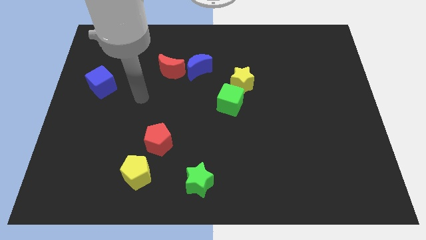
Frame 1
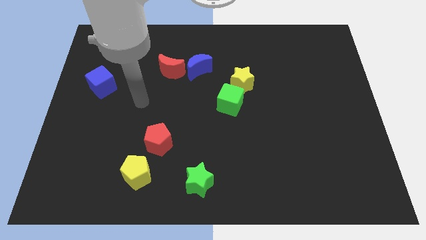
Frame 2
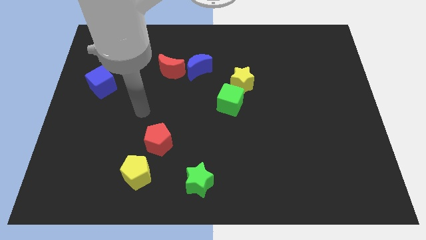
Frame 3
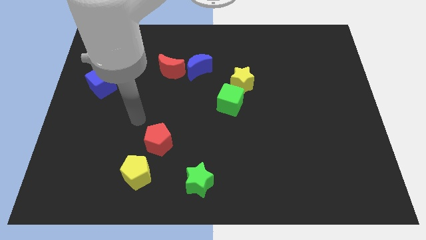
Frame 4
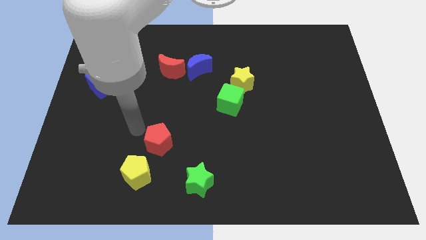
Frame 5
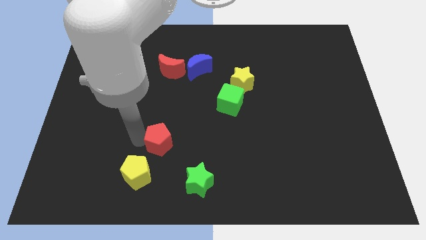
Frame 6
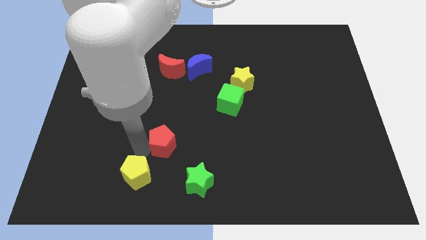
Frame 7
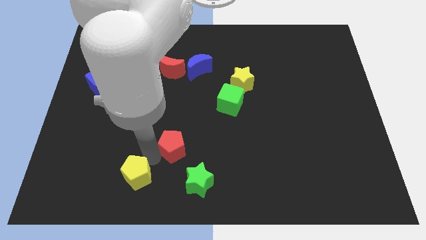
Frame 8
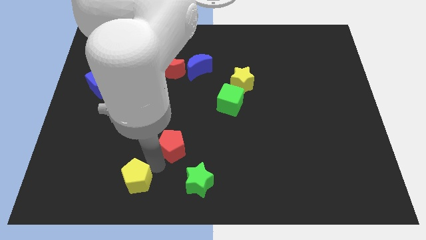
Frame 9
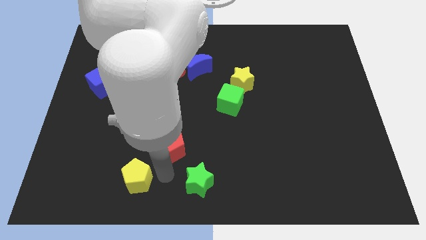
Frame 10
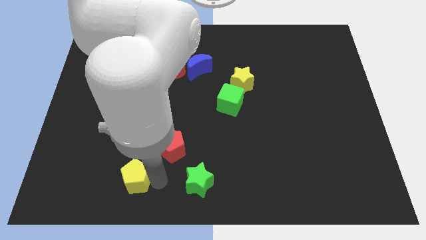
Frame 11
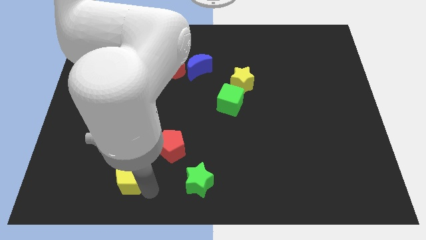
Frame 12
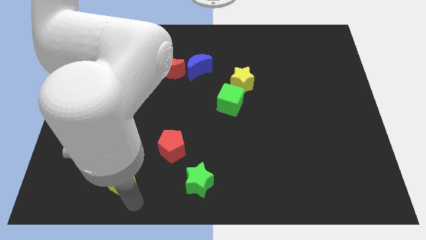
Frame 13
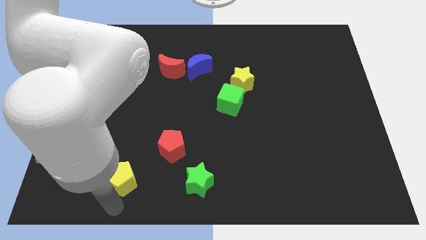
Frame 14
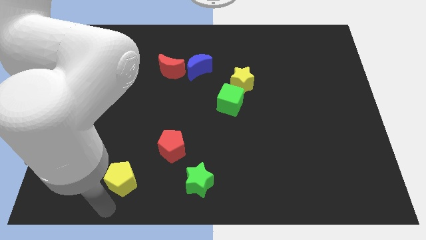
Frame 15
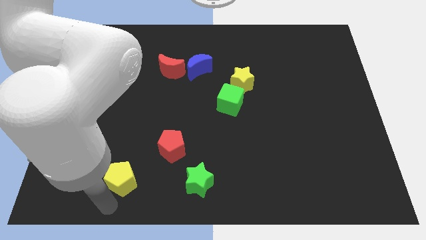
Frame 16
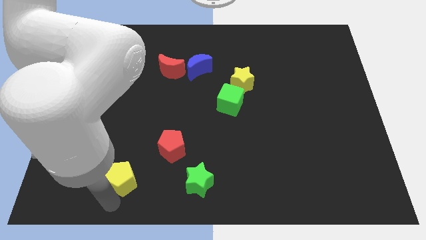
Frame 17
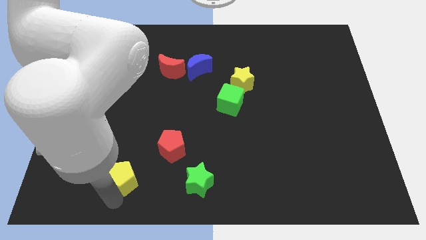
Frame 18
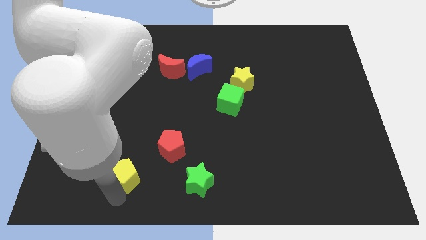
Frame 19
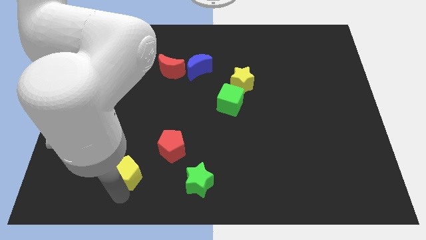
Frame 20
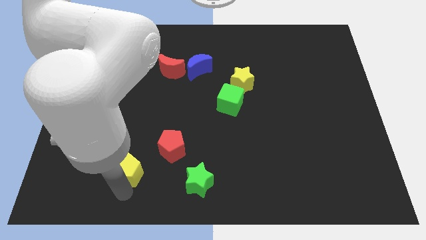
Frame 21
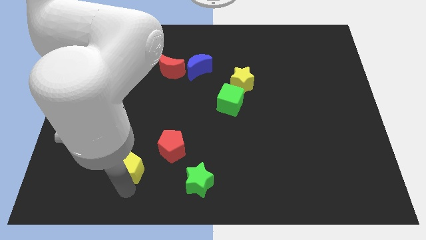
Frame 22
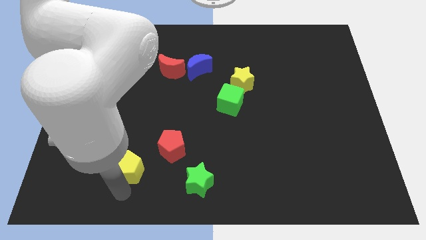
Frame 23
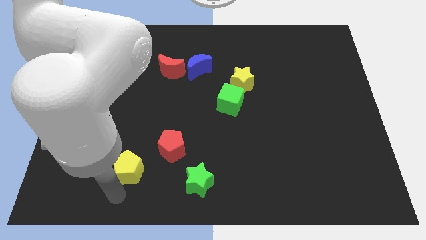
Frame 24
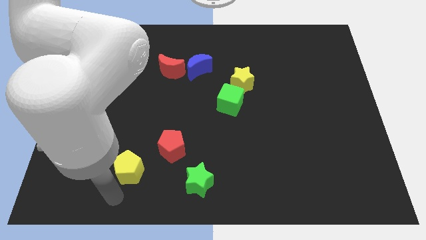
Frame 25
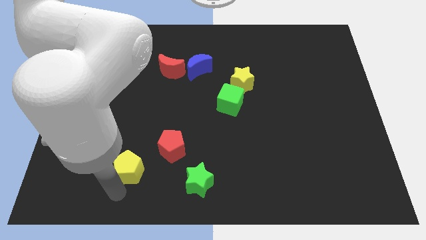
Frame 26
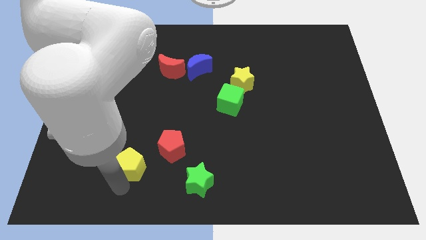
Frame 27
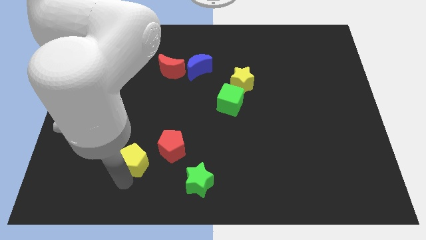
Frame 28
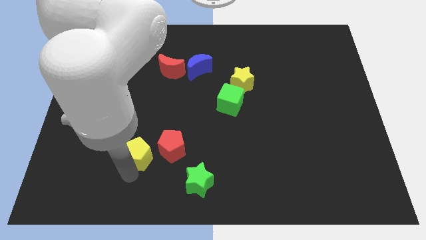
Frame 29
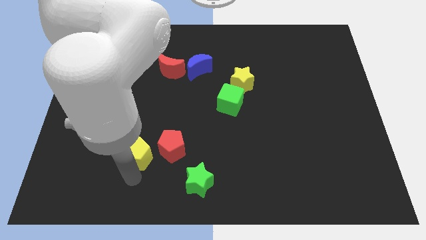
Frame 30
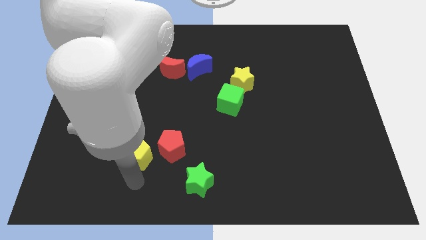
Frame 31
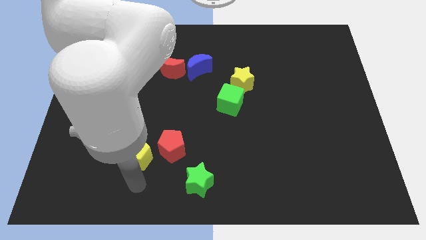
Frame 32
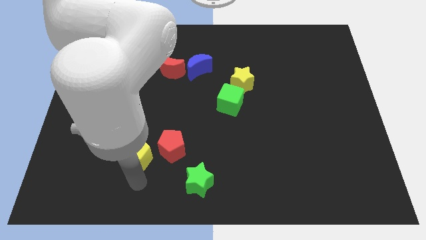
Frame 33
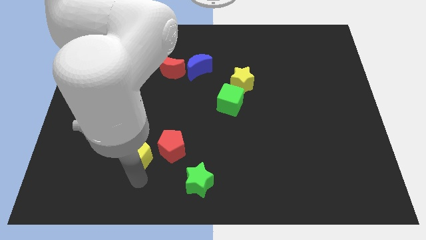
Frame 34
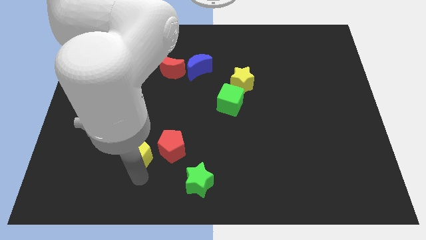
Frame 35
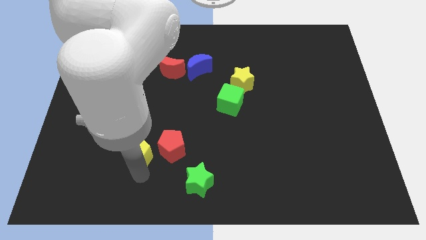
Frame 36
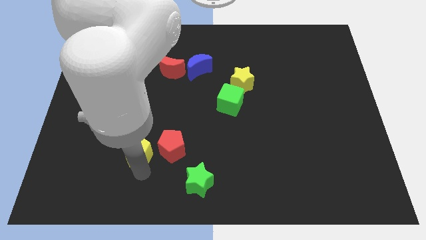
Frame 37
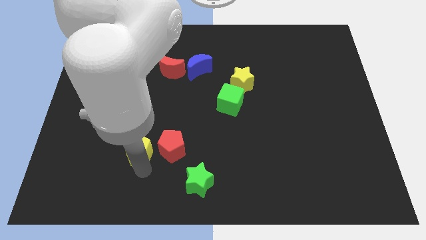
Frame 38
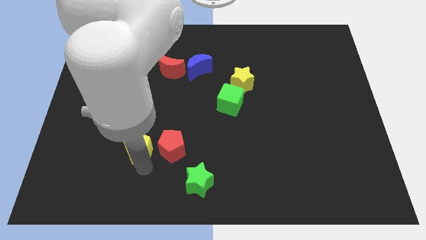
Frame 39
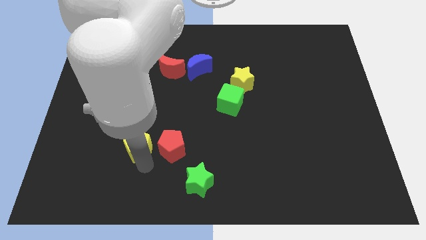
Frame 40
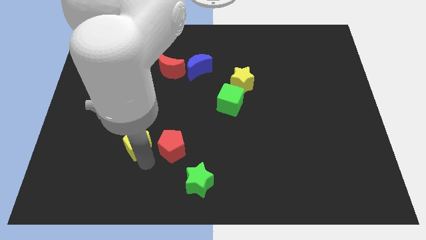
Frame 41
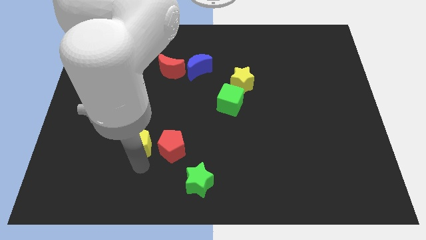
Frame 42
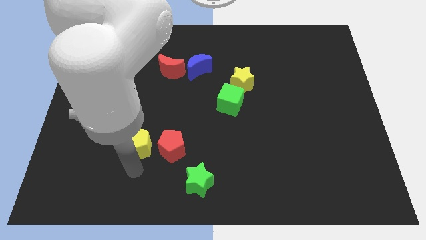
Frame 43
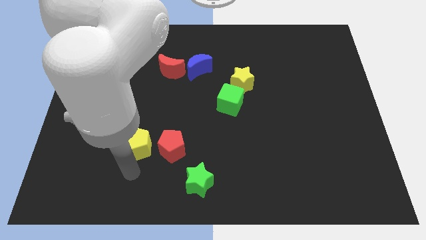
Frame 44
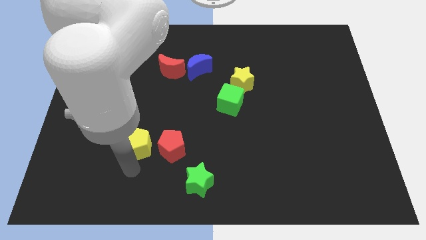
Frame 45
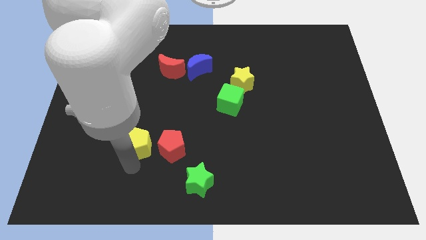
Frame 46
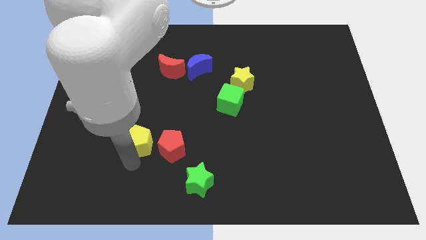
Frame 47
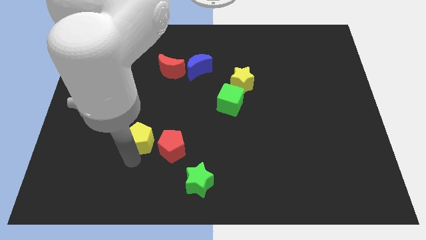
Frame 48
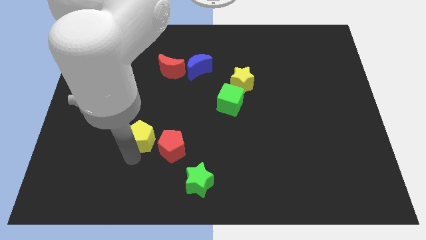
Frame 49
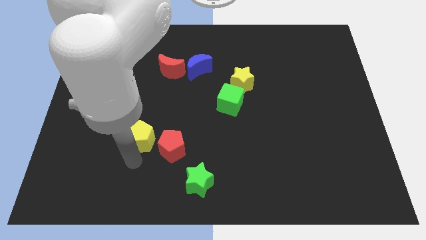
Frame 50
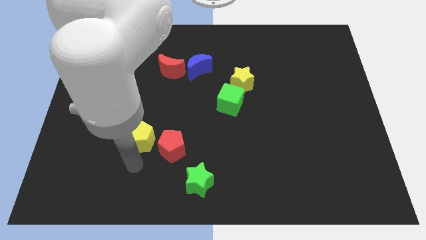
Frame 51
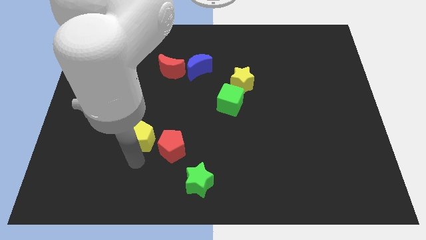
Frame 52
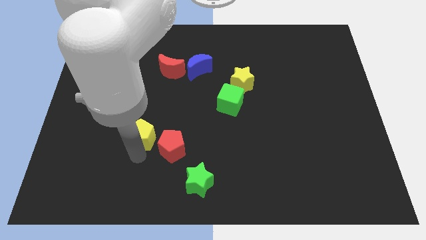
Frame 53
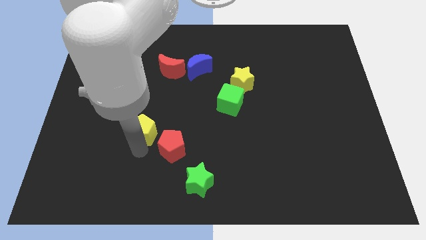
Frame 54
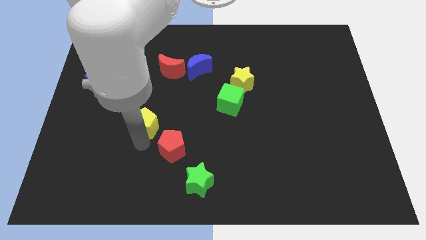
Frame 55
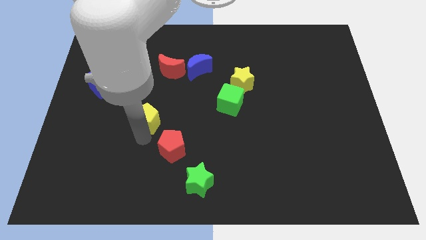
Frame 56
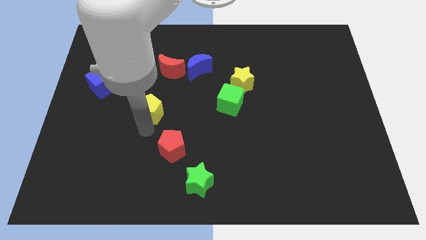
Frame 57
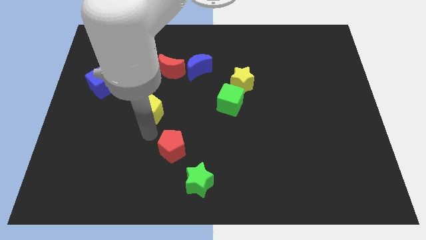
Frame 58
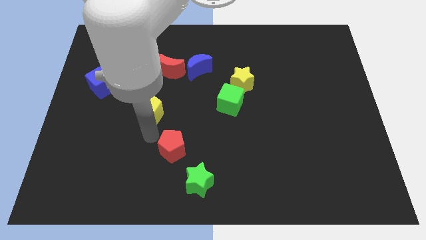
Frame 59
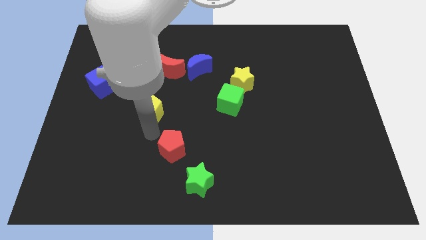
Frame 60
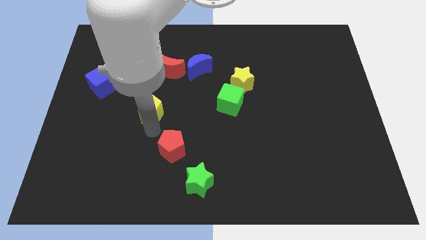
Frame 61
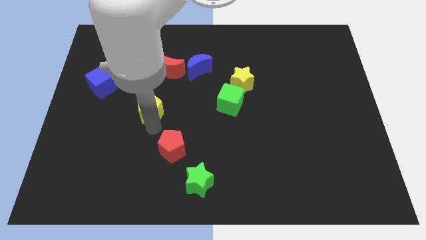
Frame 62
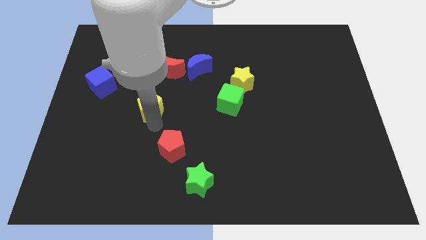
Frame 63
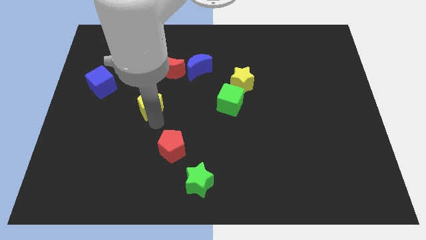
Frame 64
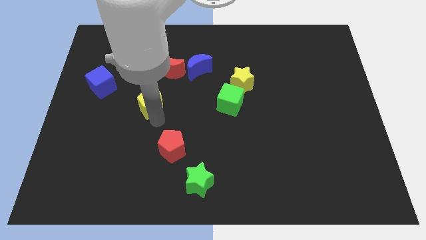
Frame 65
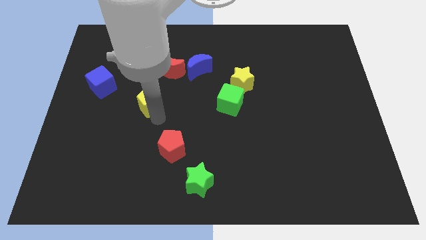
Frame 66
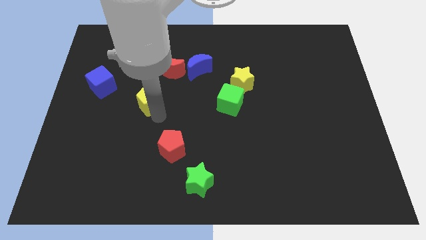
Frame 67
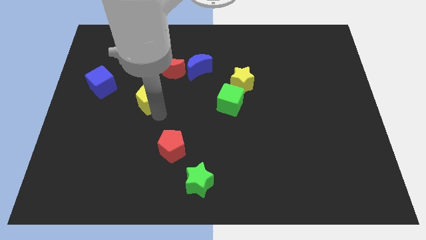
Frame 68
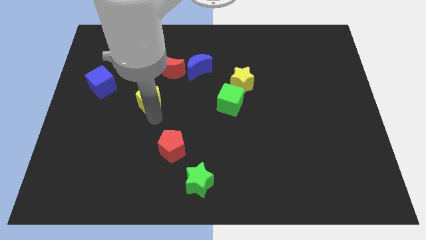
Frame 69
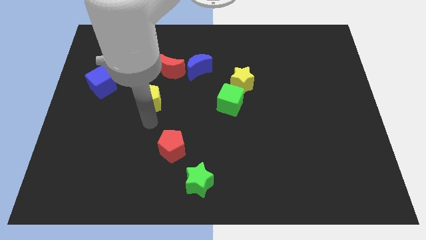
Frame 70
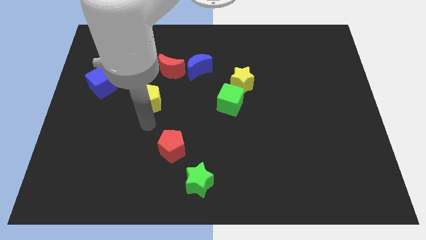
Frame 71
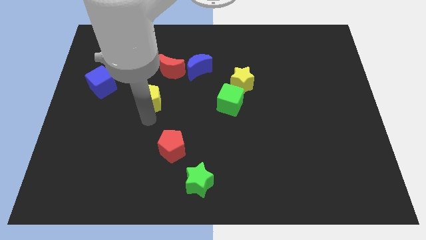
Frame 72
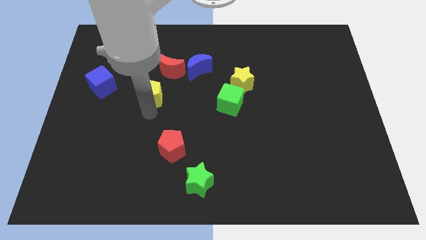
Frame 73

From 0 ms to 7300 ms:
move the yellow pentagon upwards
